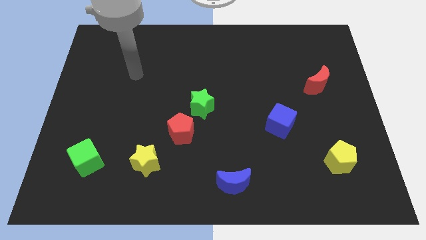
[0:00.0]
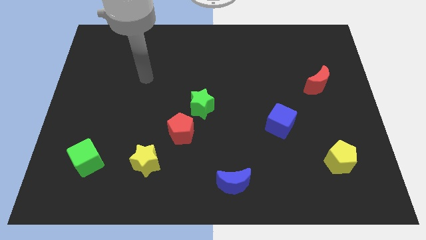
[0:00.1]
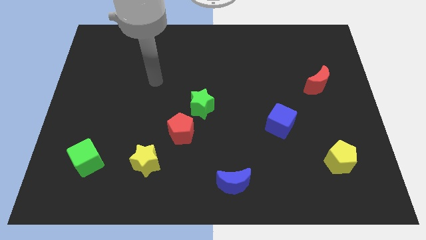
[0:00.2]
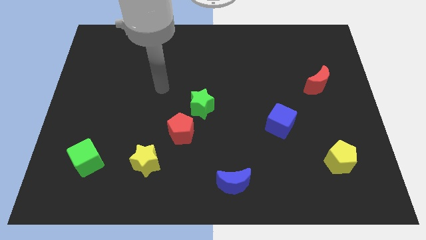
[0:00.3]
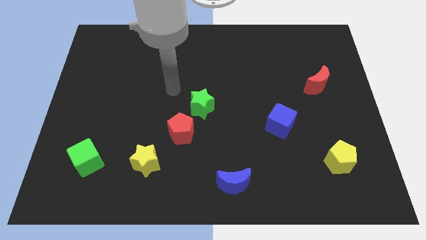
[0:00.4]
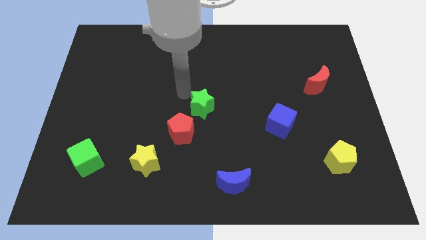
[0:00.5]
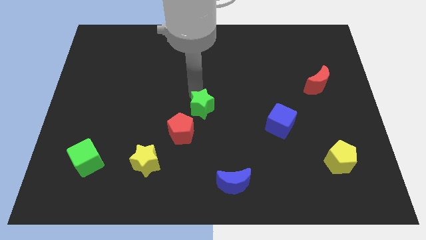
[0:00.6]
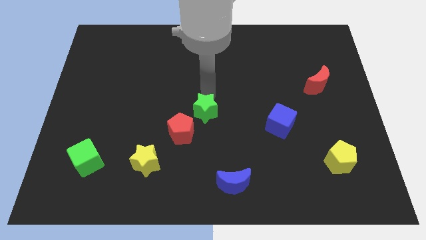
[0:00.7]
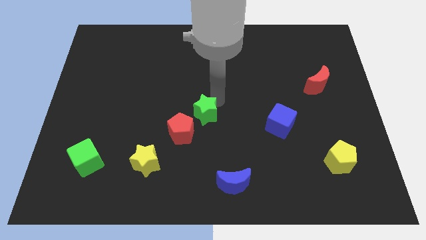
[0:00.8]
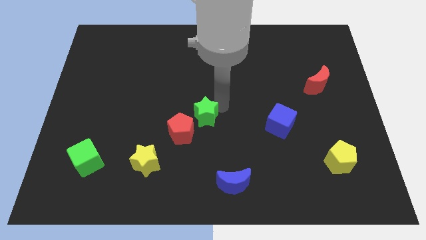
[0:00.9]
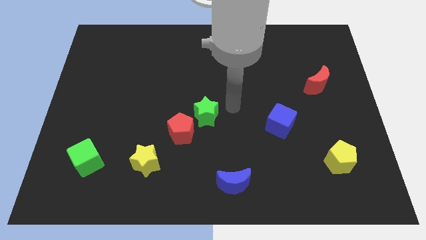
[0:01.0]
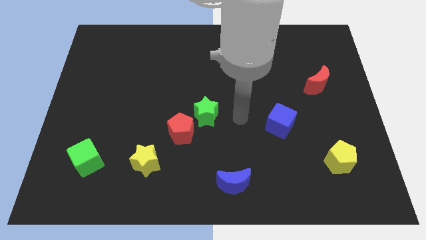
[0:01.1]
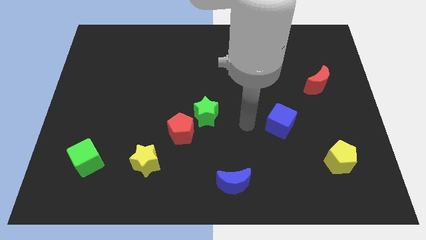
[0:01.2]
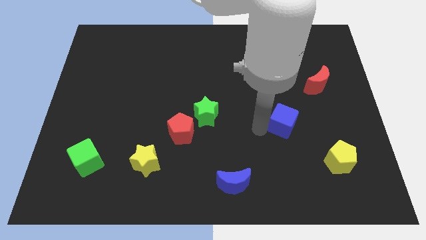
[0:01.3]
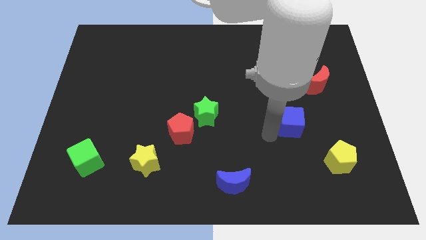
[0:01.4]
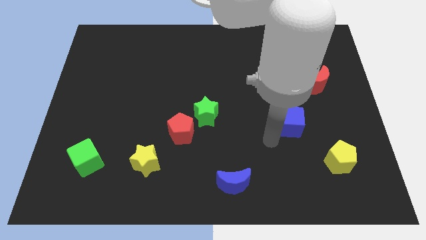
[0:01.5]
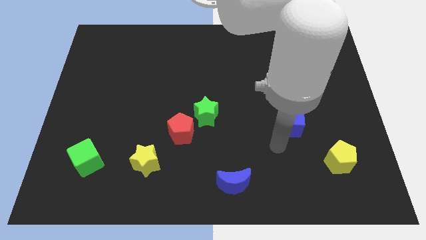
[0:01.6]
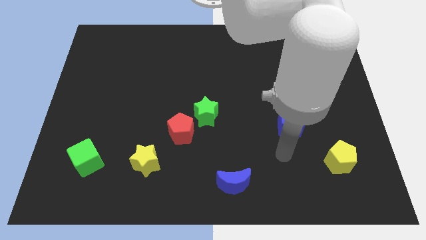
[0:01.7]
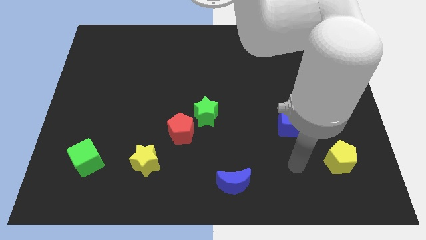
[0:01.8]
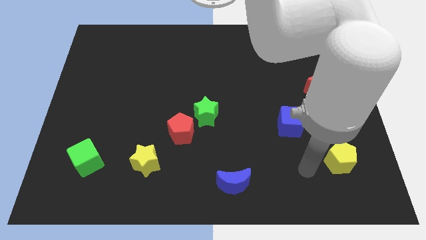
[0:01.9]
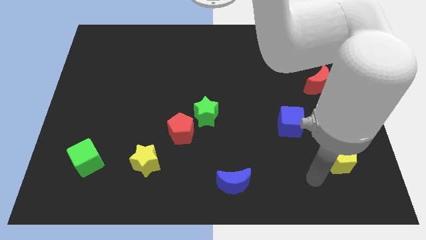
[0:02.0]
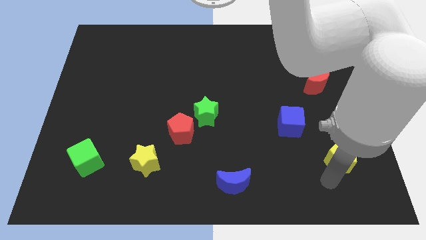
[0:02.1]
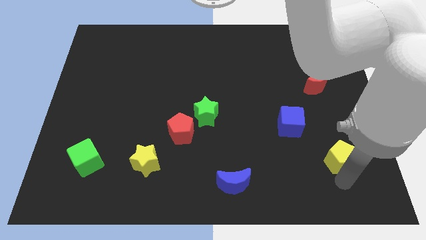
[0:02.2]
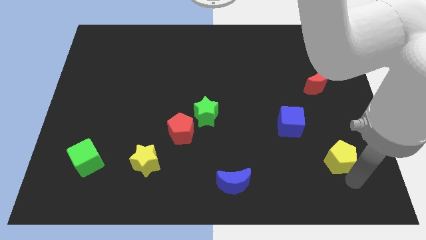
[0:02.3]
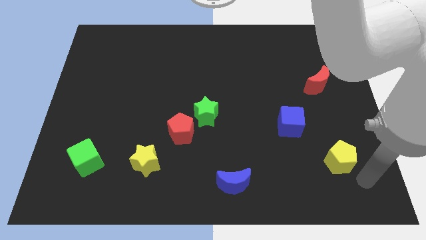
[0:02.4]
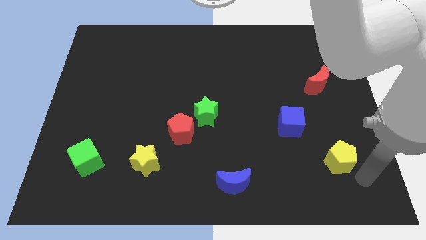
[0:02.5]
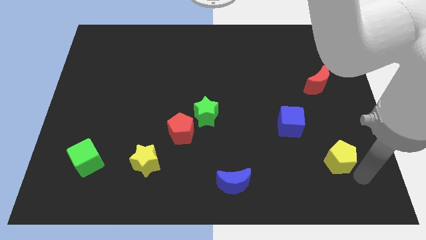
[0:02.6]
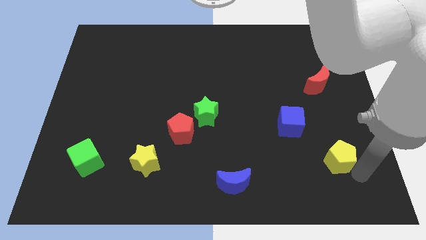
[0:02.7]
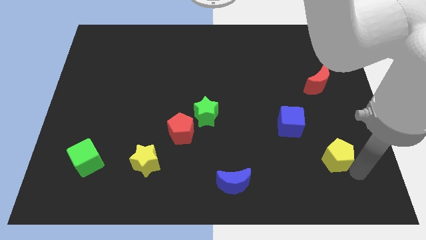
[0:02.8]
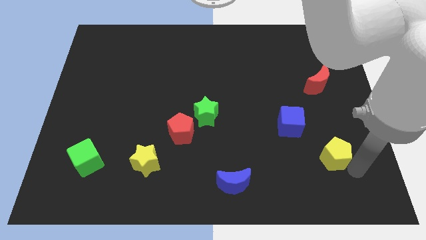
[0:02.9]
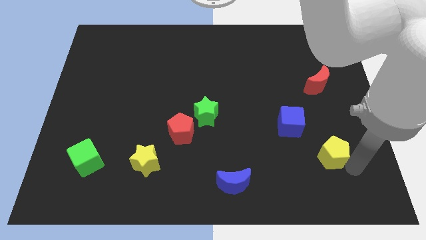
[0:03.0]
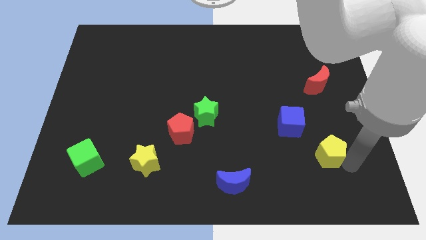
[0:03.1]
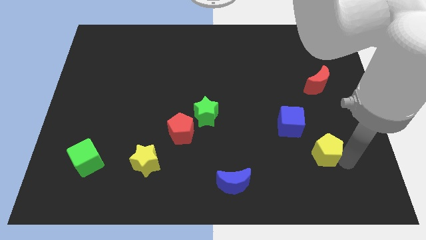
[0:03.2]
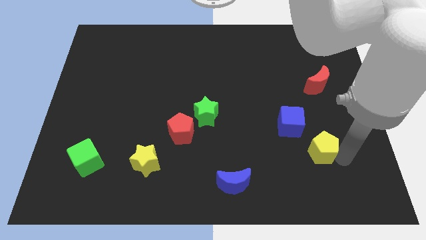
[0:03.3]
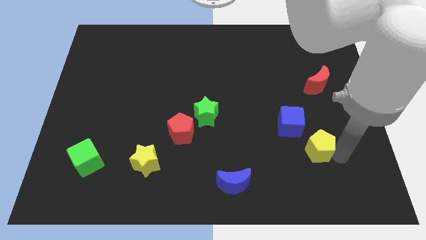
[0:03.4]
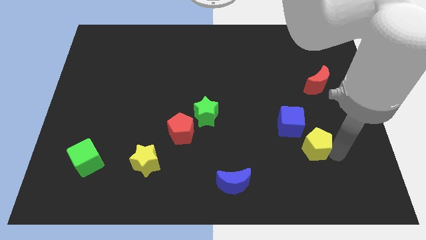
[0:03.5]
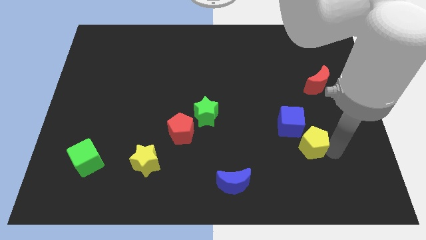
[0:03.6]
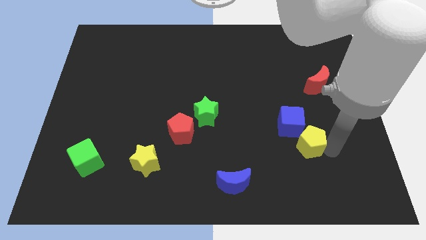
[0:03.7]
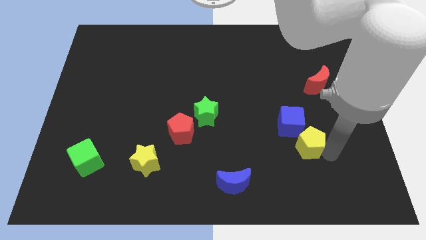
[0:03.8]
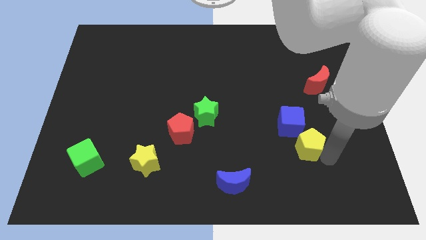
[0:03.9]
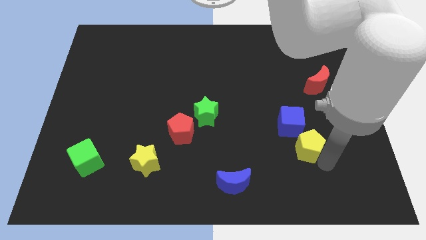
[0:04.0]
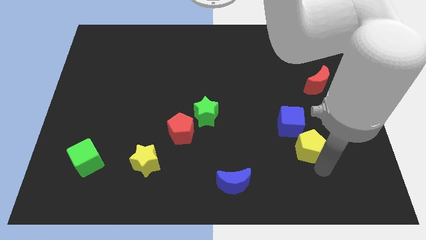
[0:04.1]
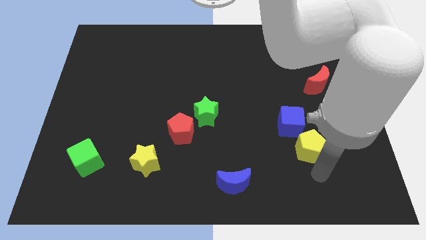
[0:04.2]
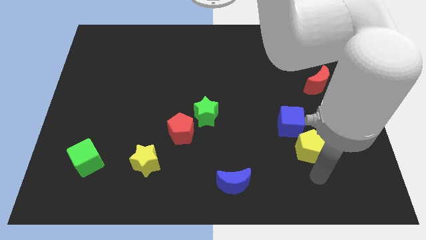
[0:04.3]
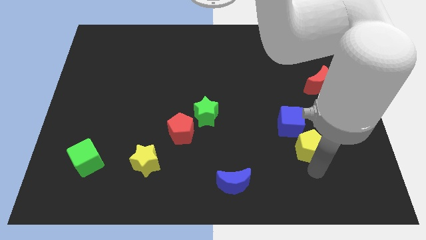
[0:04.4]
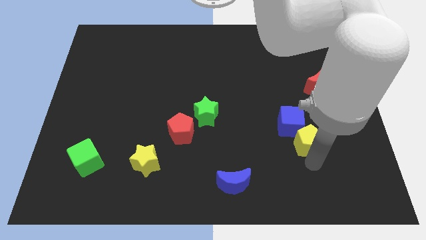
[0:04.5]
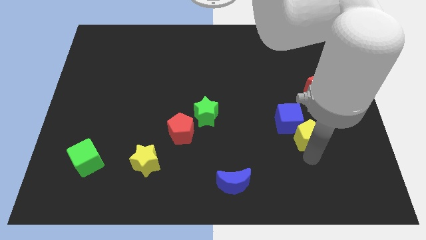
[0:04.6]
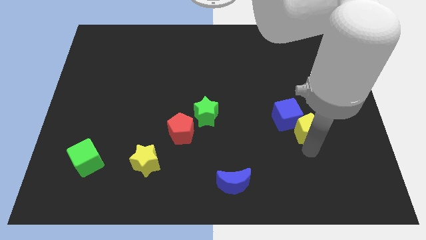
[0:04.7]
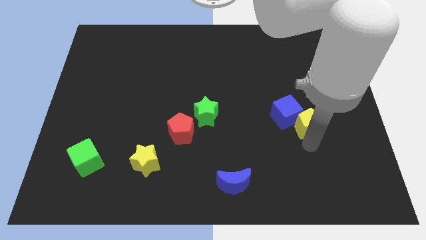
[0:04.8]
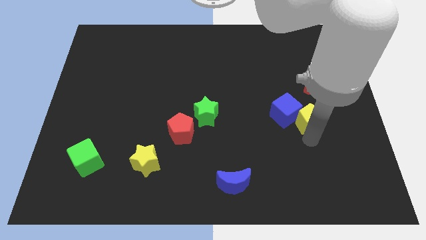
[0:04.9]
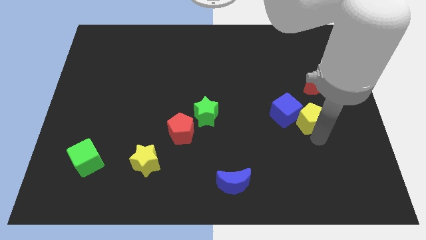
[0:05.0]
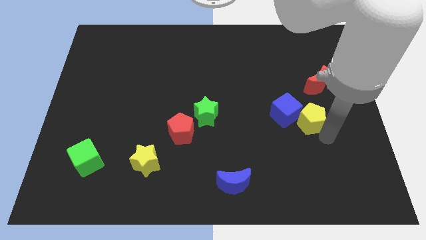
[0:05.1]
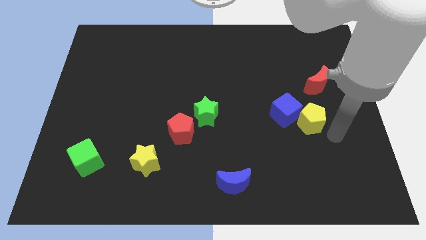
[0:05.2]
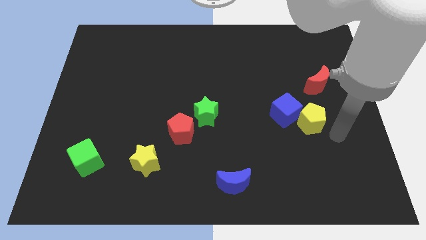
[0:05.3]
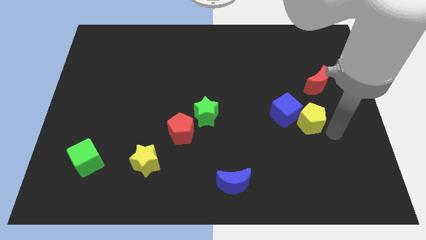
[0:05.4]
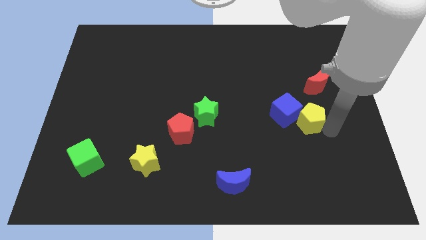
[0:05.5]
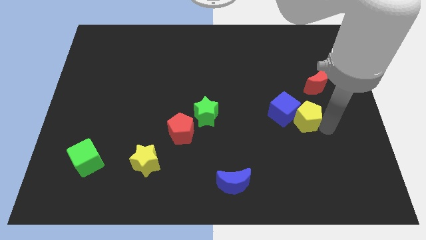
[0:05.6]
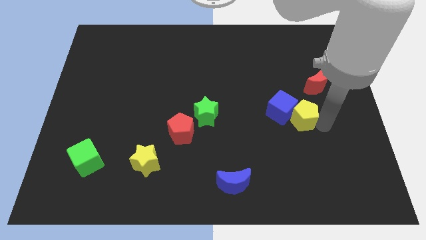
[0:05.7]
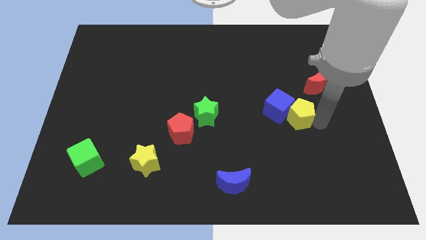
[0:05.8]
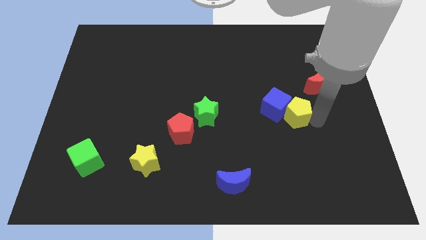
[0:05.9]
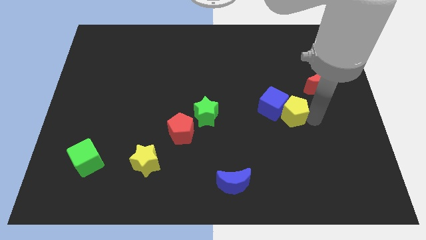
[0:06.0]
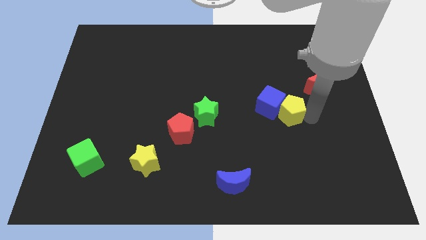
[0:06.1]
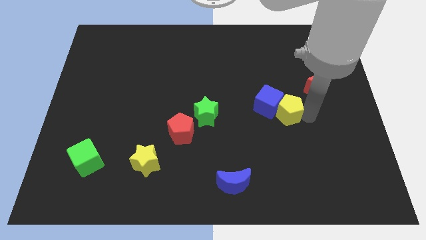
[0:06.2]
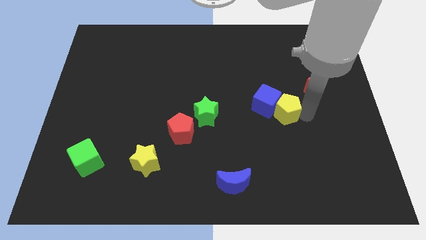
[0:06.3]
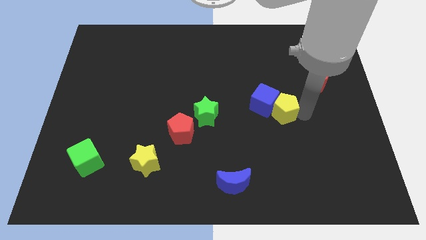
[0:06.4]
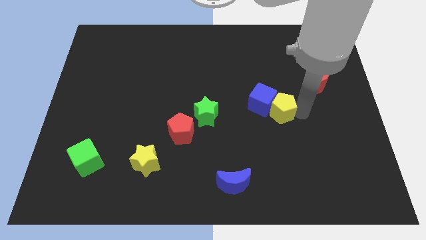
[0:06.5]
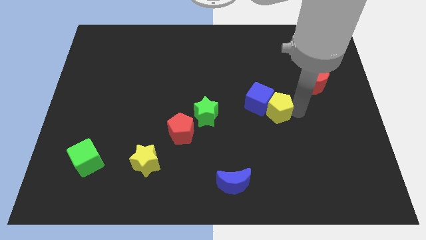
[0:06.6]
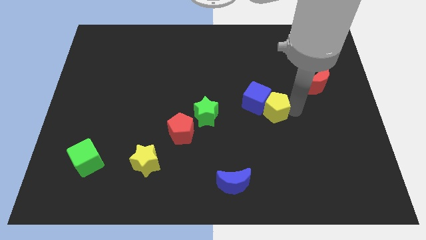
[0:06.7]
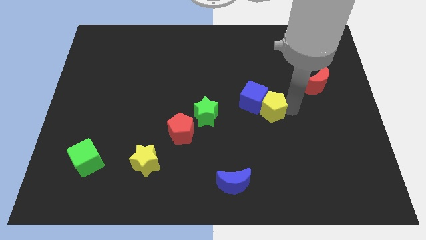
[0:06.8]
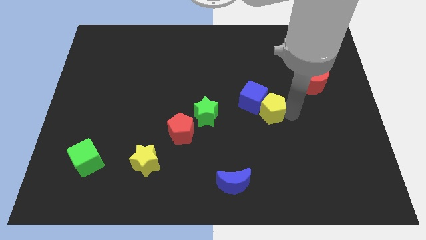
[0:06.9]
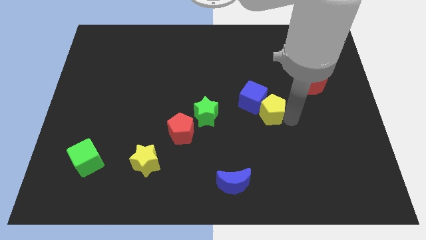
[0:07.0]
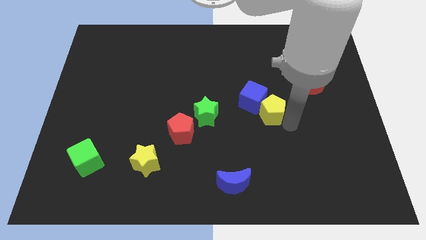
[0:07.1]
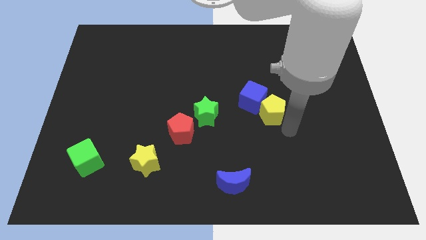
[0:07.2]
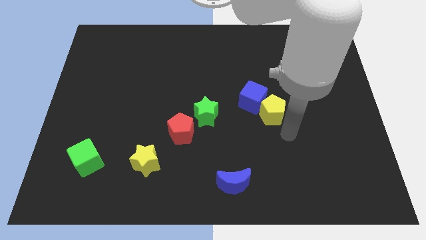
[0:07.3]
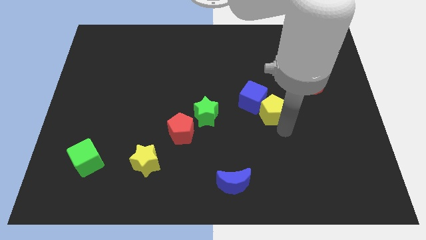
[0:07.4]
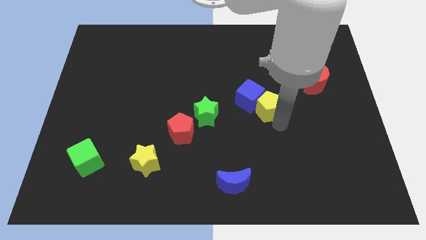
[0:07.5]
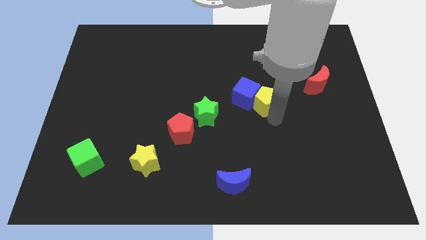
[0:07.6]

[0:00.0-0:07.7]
push the yellow pentagon upwards and left

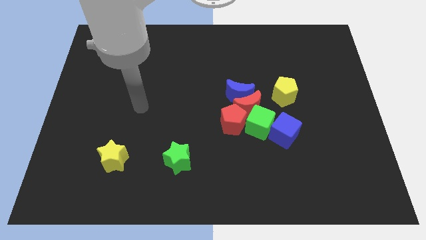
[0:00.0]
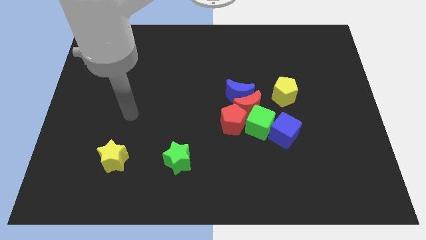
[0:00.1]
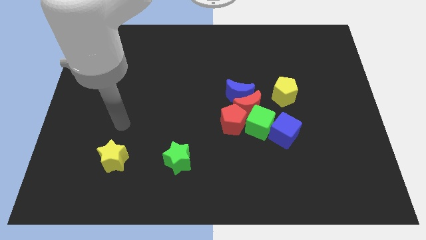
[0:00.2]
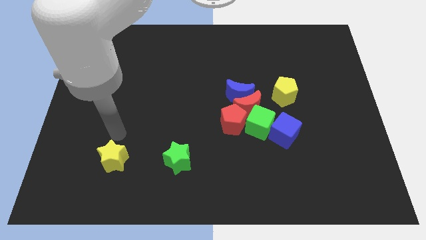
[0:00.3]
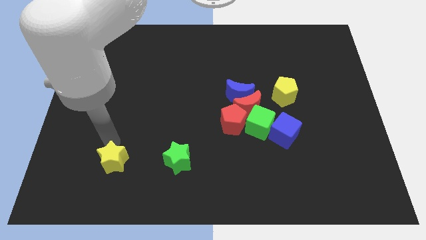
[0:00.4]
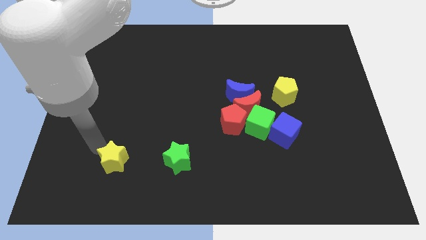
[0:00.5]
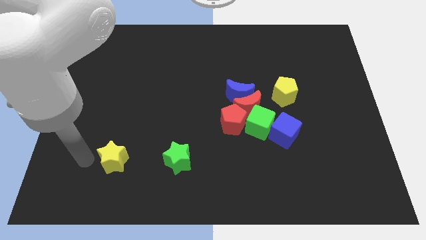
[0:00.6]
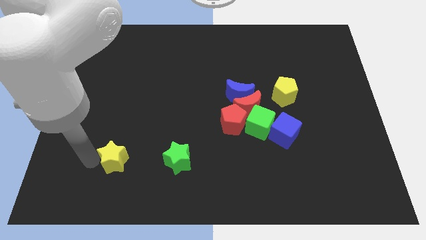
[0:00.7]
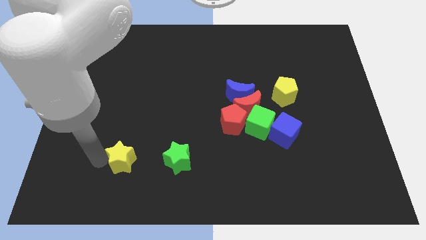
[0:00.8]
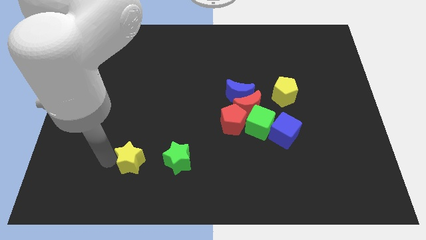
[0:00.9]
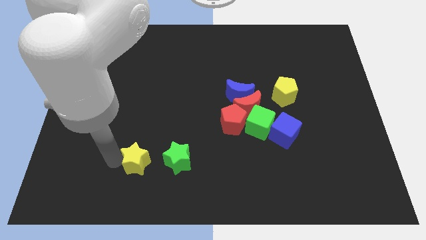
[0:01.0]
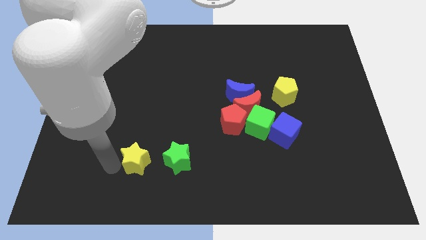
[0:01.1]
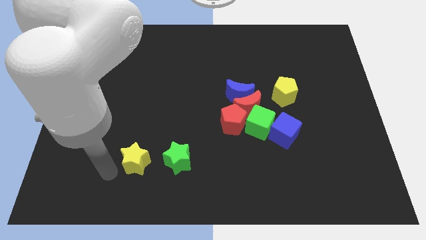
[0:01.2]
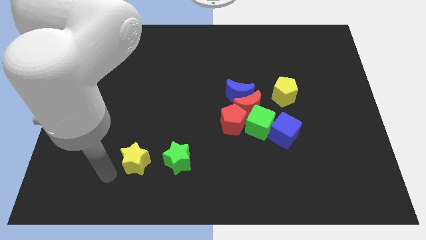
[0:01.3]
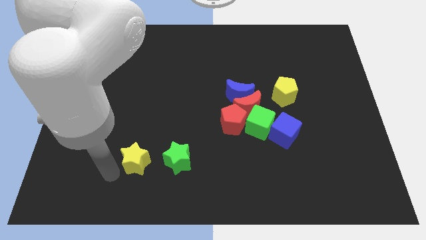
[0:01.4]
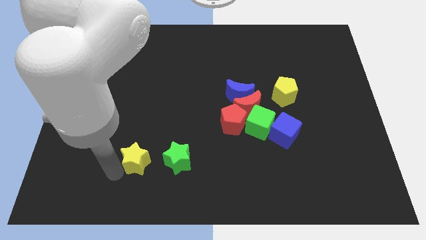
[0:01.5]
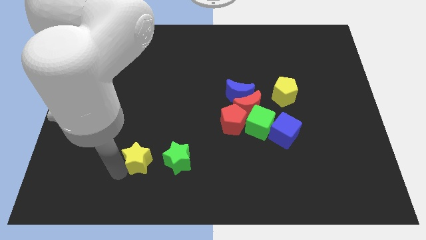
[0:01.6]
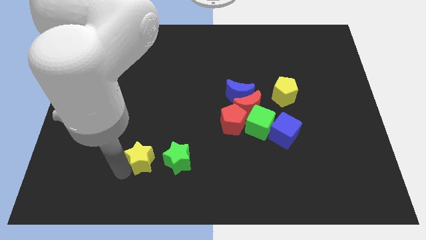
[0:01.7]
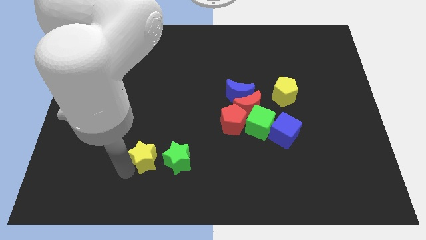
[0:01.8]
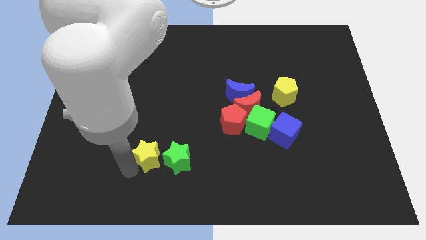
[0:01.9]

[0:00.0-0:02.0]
slide the yellow star somewhat right
